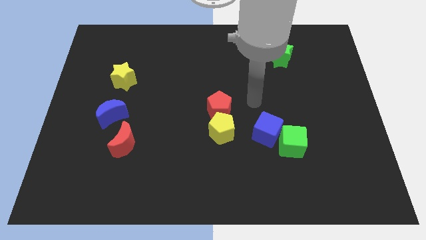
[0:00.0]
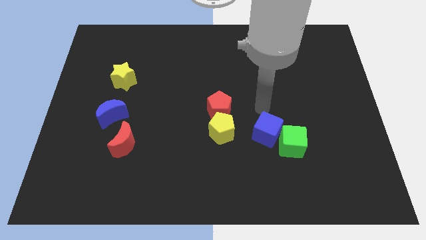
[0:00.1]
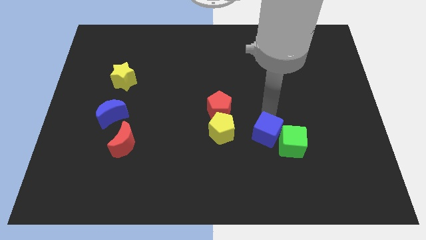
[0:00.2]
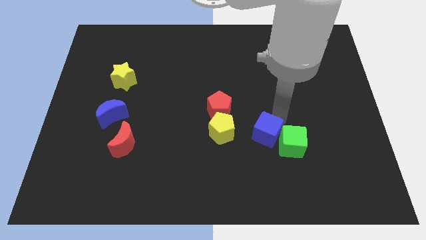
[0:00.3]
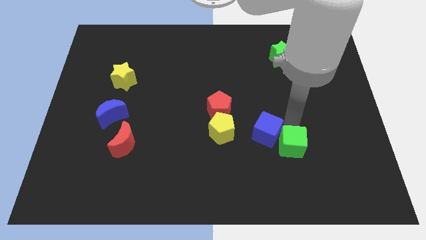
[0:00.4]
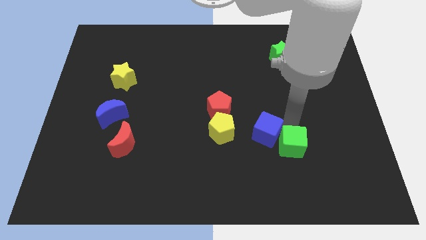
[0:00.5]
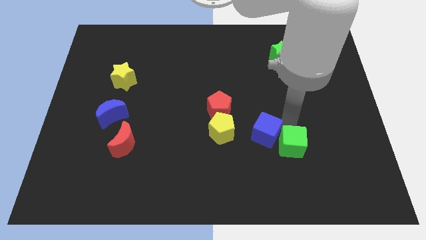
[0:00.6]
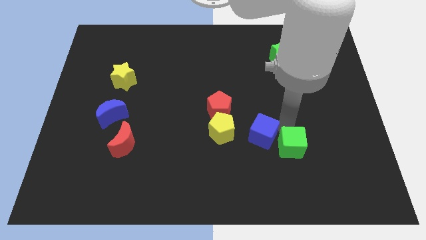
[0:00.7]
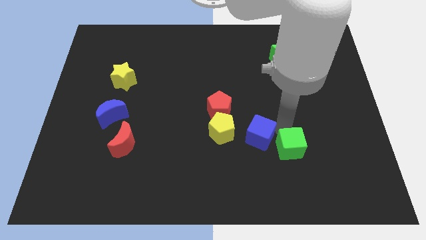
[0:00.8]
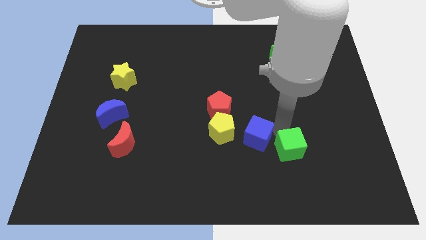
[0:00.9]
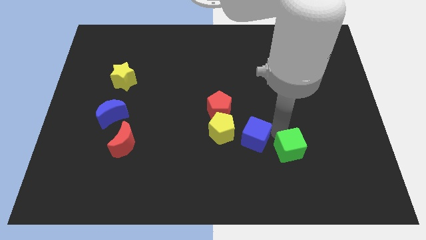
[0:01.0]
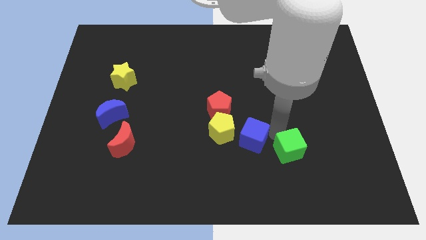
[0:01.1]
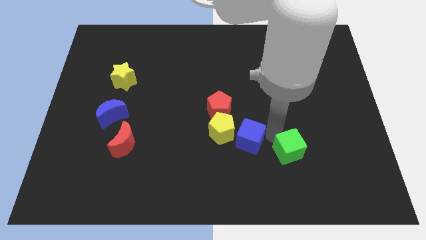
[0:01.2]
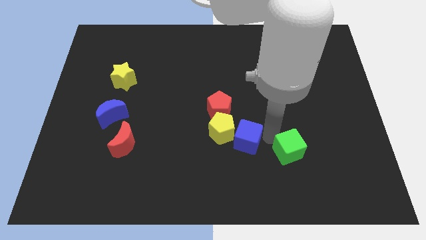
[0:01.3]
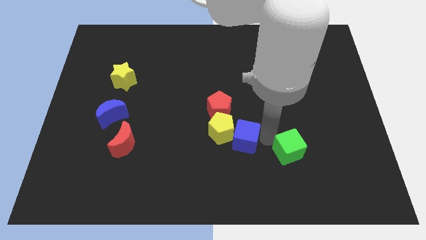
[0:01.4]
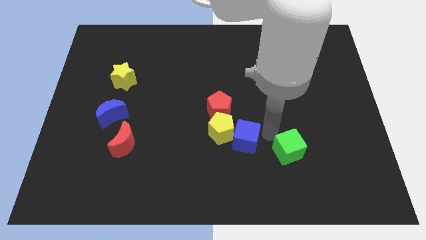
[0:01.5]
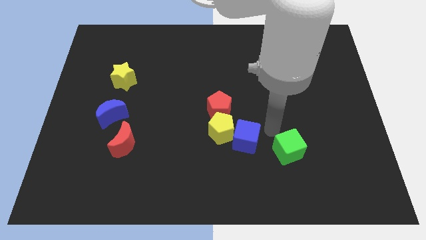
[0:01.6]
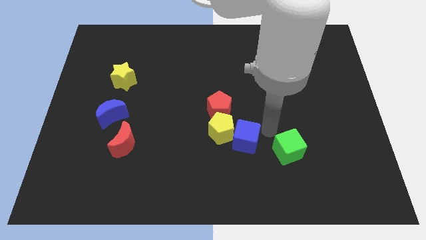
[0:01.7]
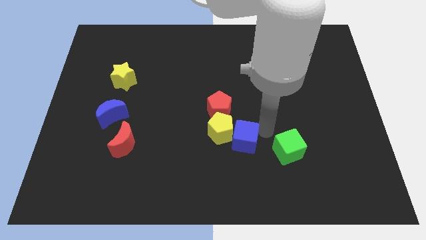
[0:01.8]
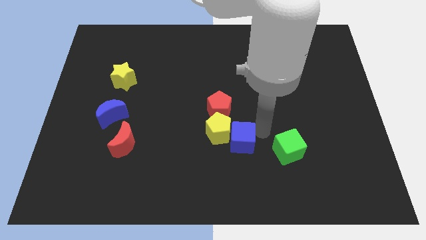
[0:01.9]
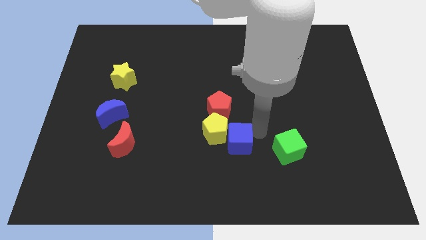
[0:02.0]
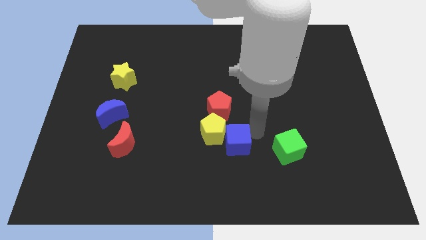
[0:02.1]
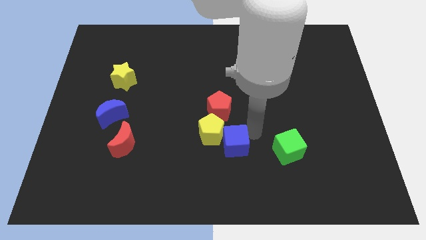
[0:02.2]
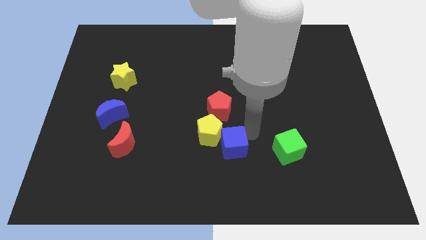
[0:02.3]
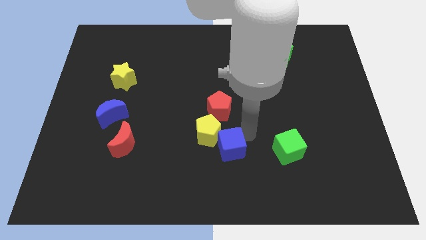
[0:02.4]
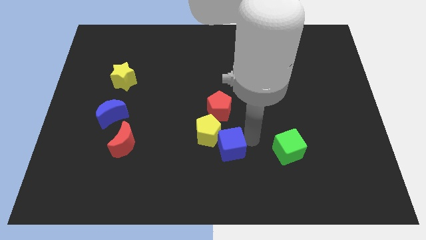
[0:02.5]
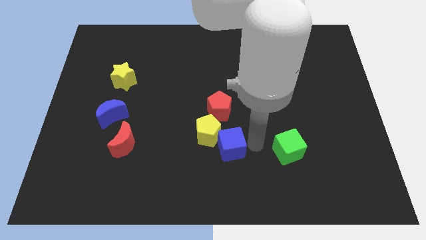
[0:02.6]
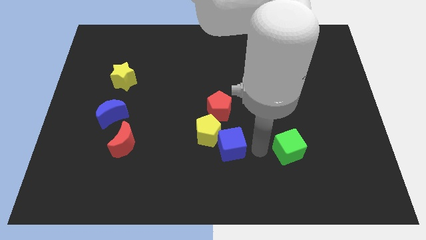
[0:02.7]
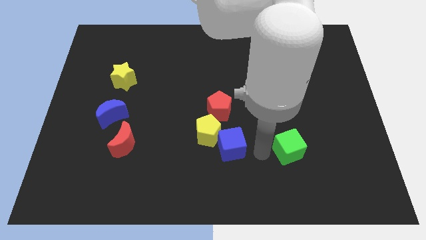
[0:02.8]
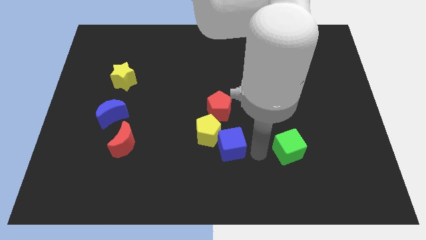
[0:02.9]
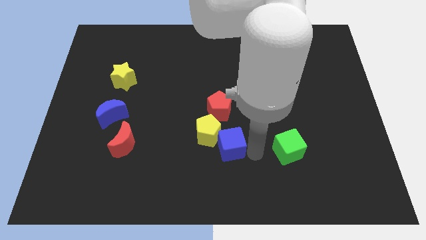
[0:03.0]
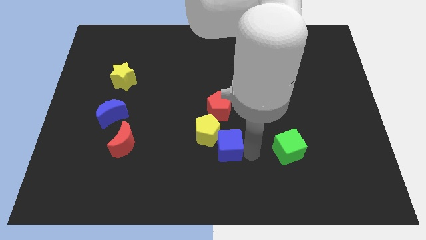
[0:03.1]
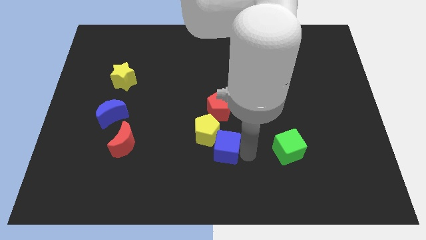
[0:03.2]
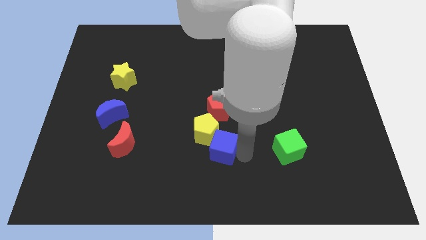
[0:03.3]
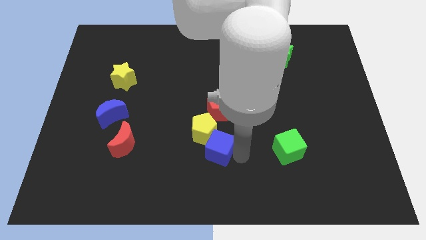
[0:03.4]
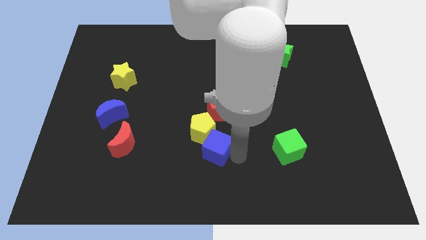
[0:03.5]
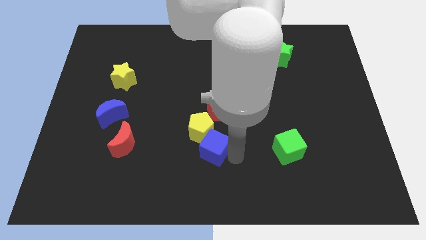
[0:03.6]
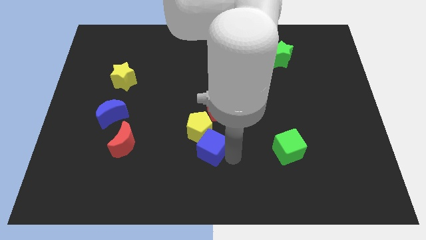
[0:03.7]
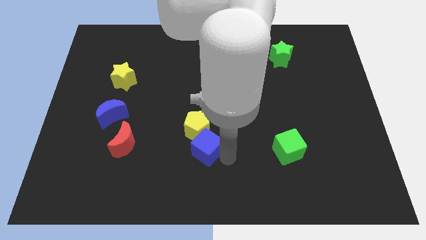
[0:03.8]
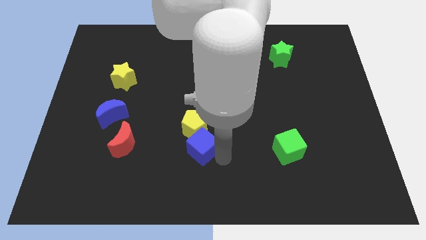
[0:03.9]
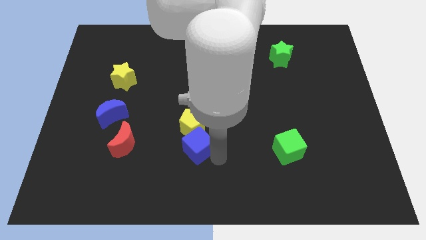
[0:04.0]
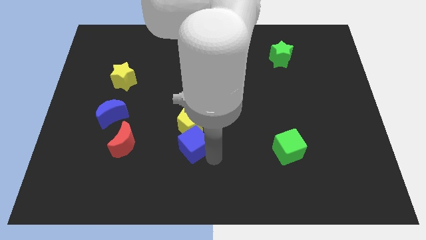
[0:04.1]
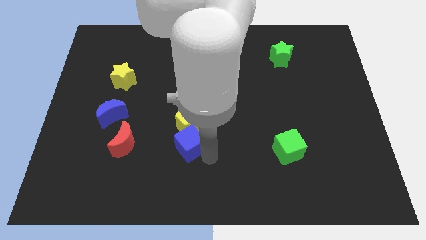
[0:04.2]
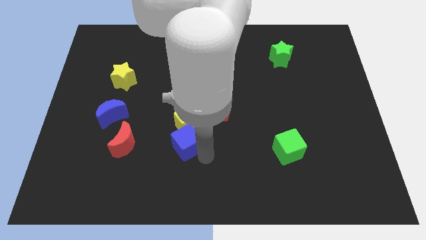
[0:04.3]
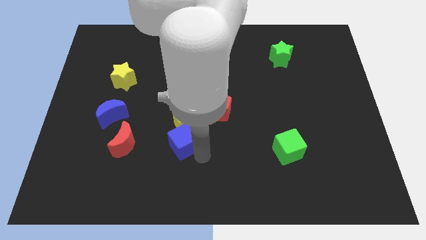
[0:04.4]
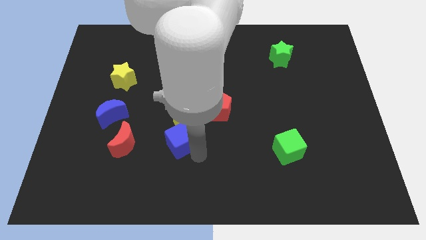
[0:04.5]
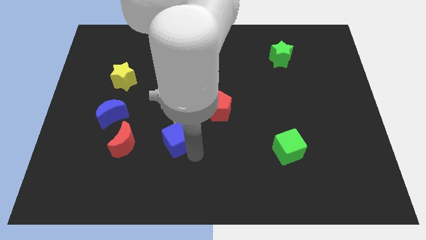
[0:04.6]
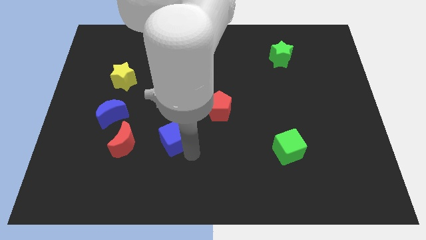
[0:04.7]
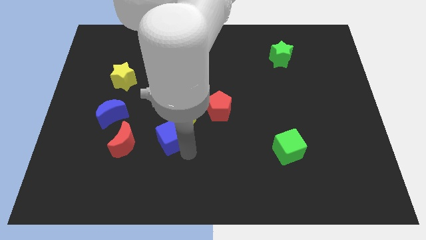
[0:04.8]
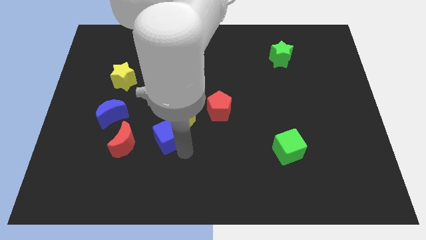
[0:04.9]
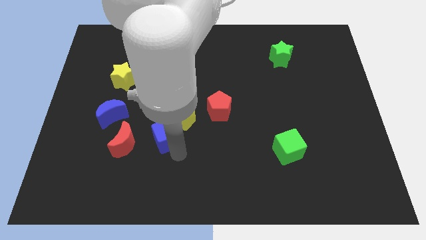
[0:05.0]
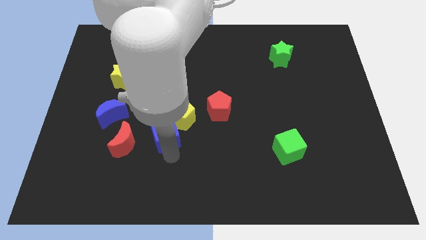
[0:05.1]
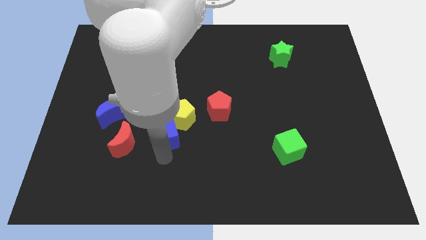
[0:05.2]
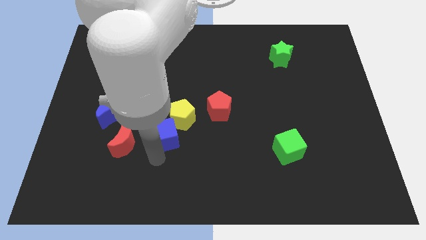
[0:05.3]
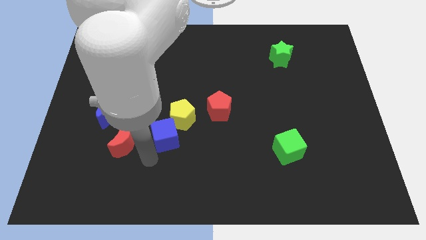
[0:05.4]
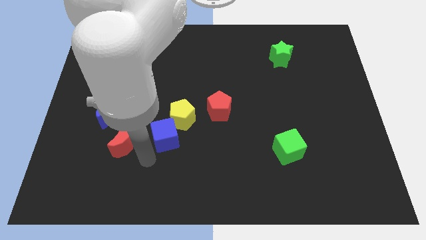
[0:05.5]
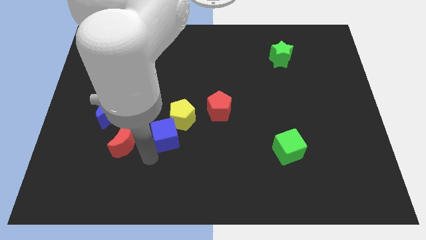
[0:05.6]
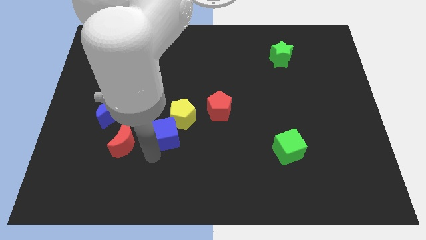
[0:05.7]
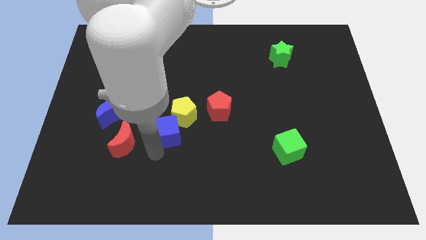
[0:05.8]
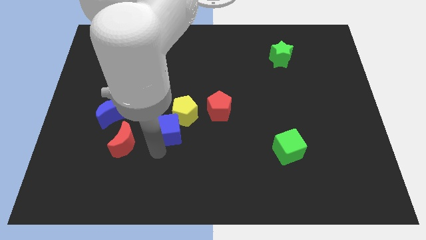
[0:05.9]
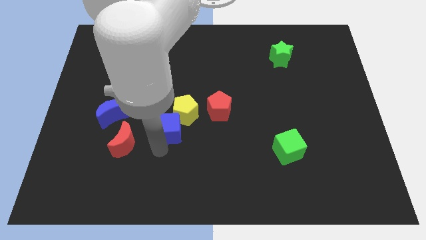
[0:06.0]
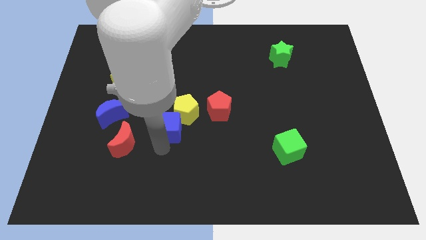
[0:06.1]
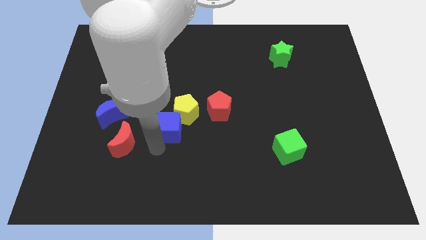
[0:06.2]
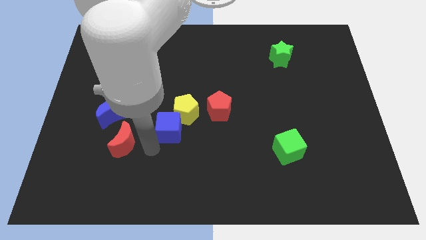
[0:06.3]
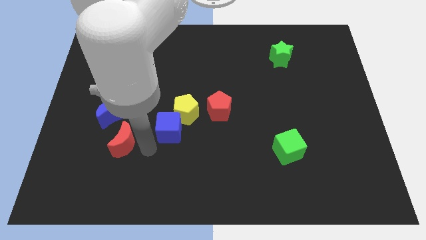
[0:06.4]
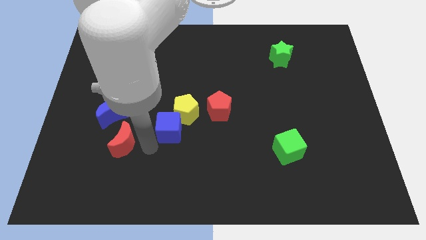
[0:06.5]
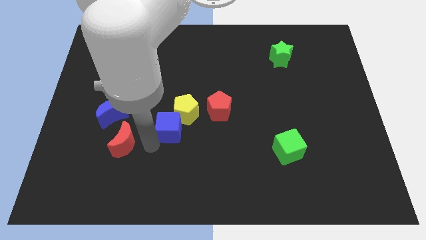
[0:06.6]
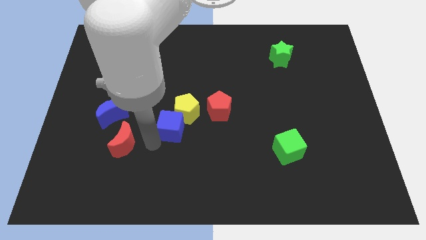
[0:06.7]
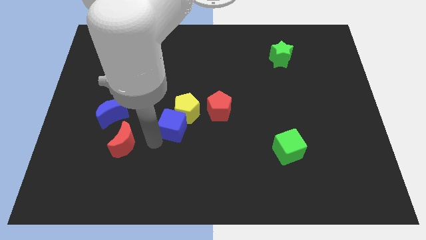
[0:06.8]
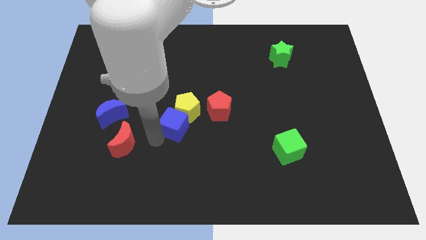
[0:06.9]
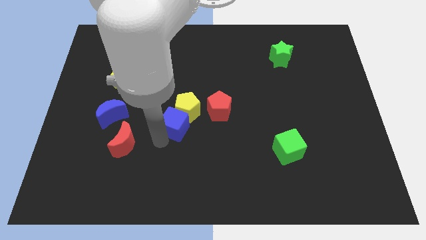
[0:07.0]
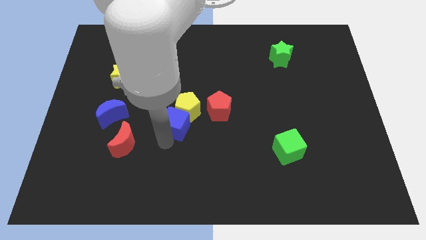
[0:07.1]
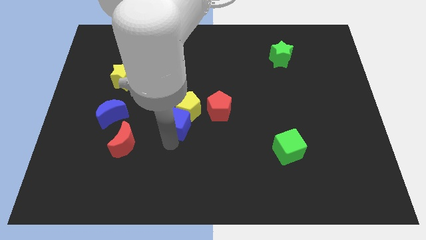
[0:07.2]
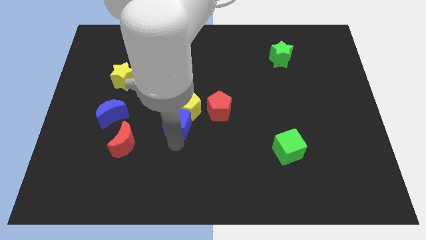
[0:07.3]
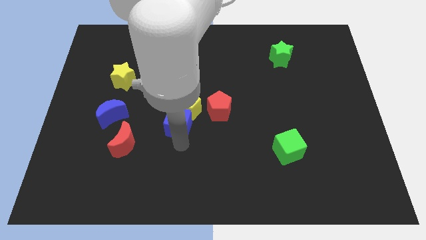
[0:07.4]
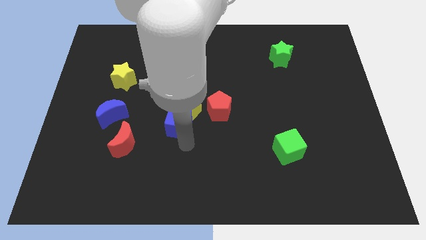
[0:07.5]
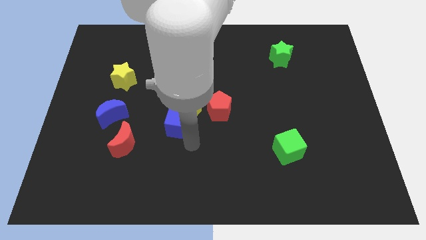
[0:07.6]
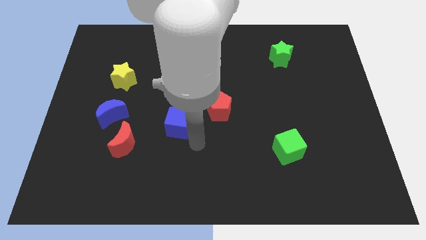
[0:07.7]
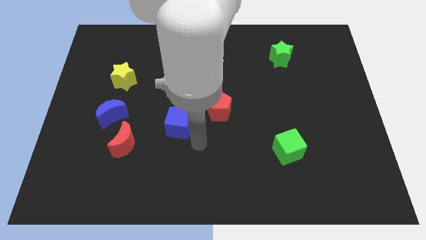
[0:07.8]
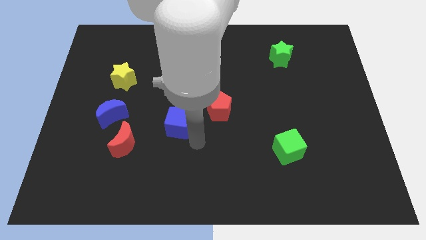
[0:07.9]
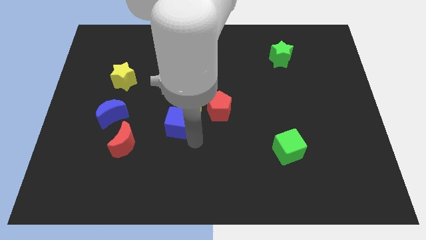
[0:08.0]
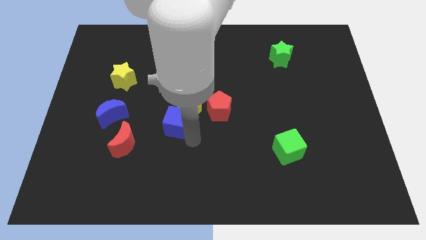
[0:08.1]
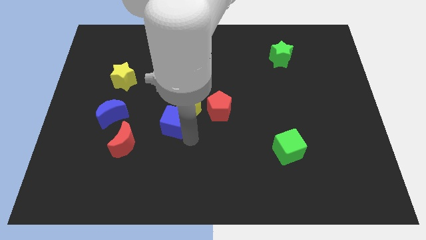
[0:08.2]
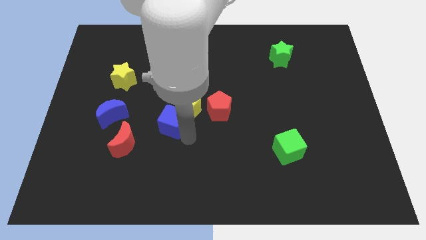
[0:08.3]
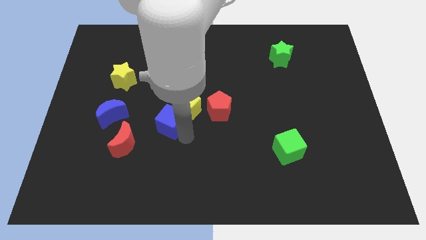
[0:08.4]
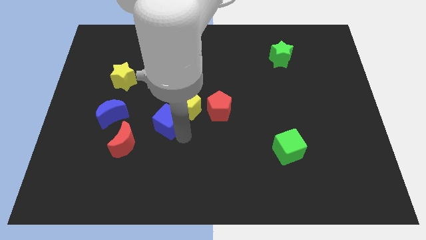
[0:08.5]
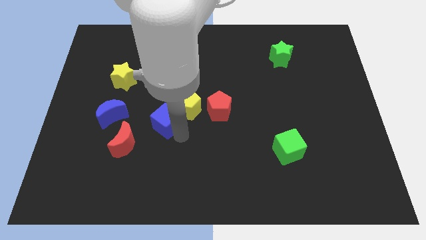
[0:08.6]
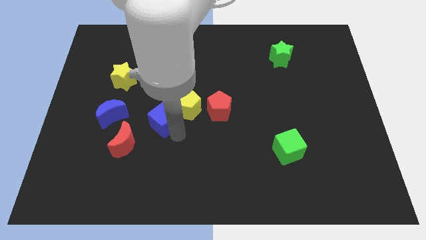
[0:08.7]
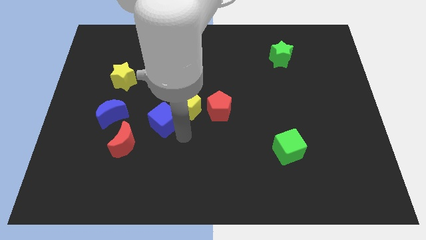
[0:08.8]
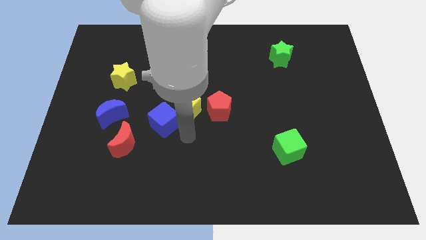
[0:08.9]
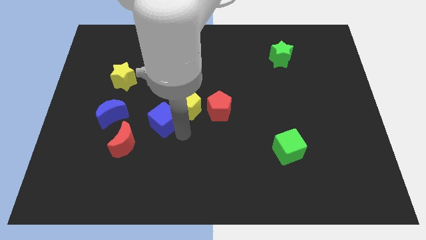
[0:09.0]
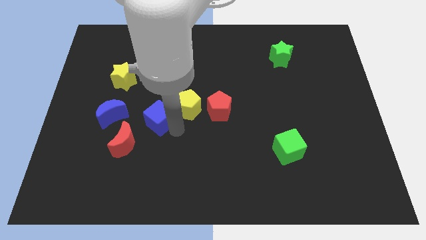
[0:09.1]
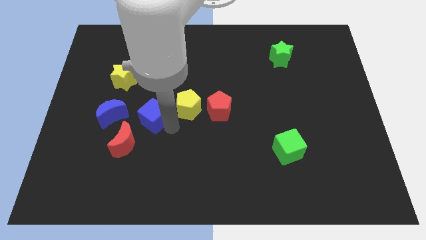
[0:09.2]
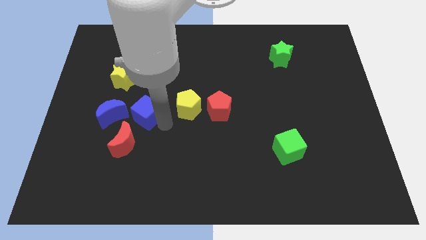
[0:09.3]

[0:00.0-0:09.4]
push the blue cube to the top of the red moon
